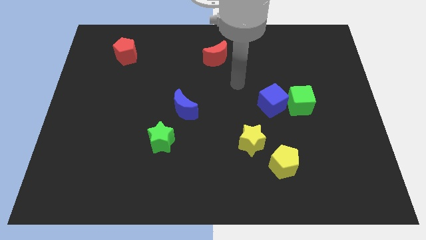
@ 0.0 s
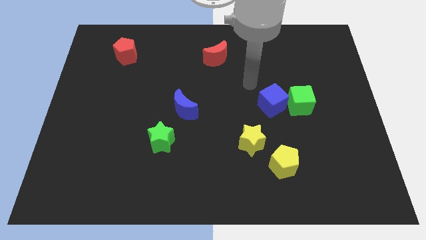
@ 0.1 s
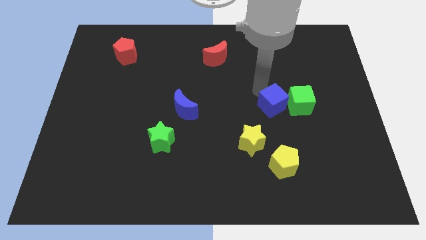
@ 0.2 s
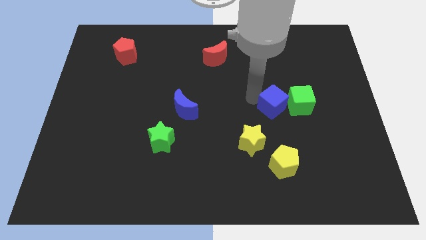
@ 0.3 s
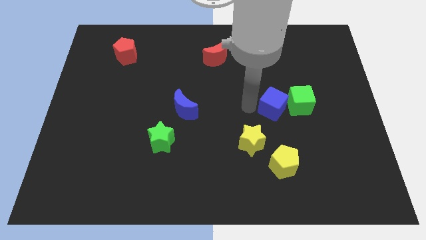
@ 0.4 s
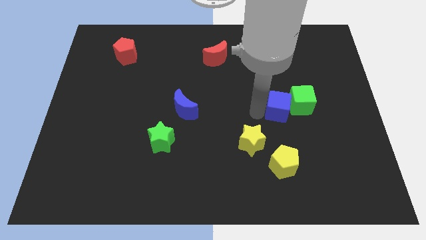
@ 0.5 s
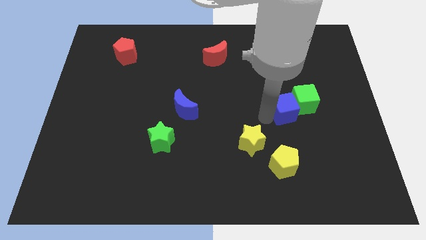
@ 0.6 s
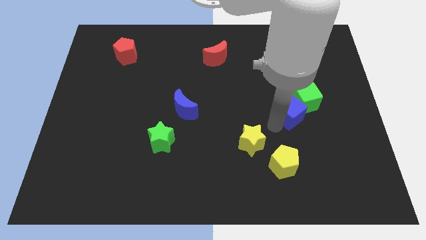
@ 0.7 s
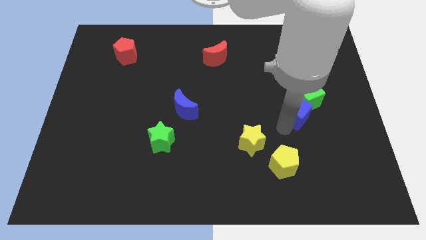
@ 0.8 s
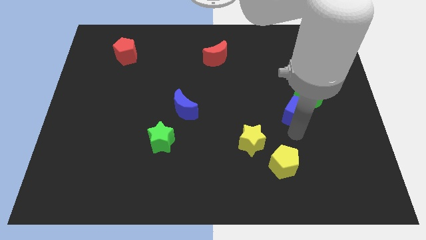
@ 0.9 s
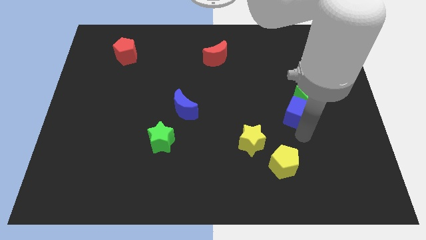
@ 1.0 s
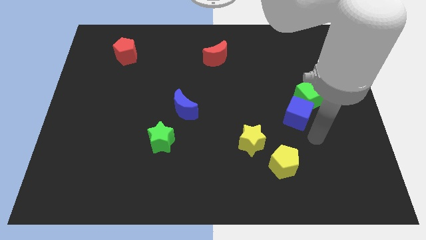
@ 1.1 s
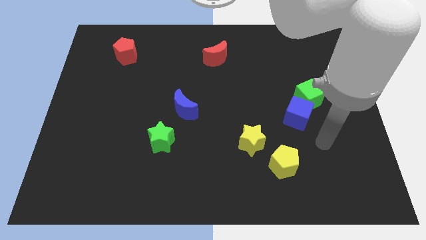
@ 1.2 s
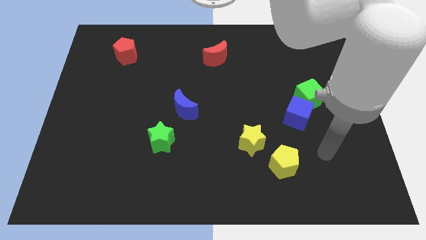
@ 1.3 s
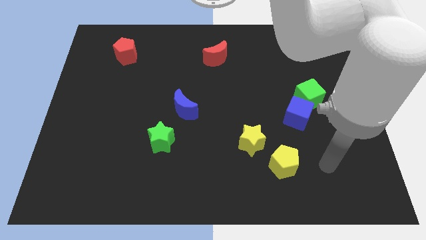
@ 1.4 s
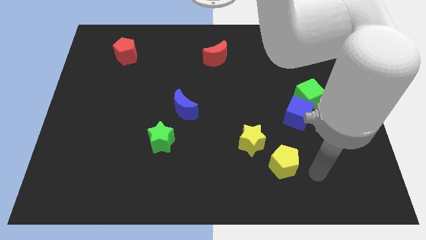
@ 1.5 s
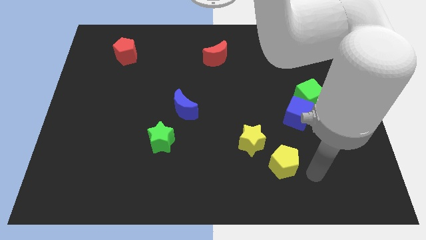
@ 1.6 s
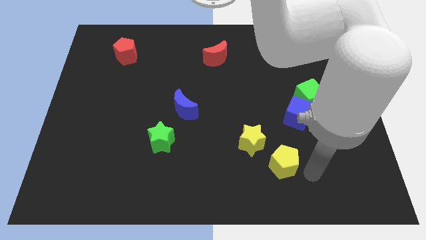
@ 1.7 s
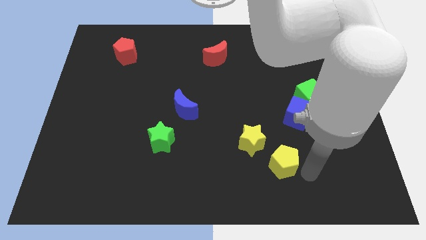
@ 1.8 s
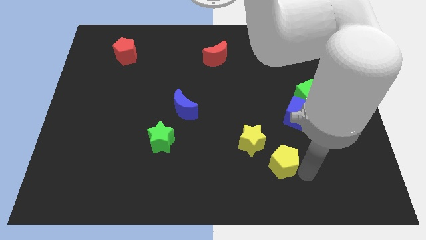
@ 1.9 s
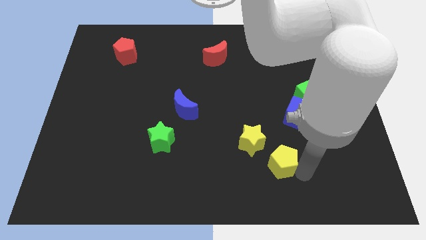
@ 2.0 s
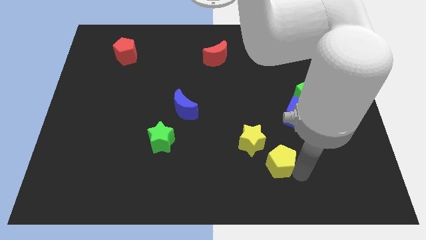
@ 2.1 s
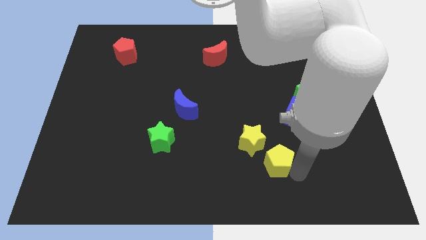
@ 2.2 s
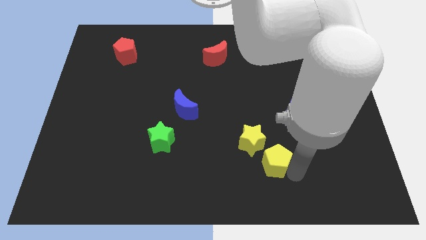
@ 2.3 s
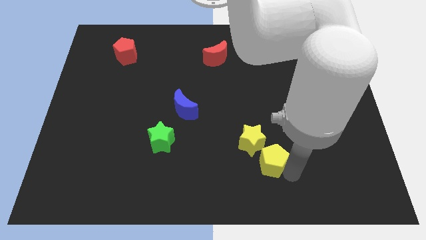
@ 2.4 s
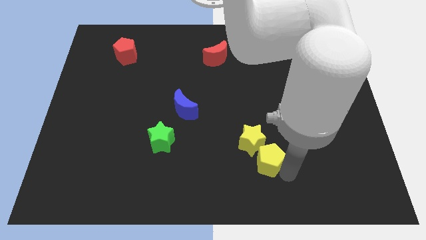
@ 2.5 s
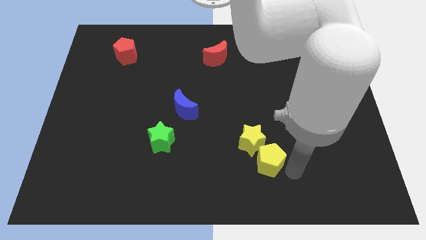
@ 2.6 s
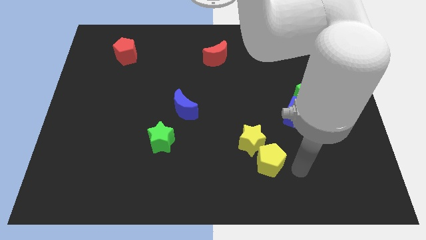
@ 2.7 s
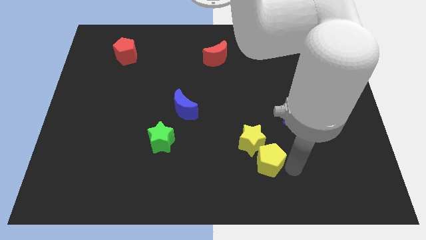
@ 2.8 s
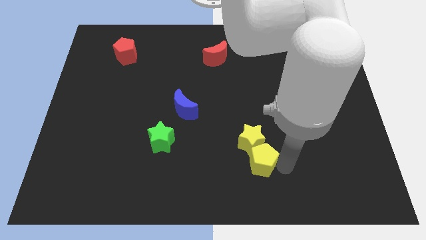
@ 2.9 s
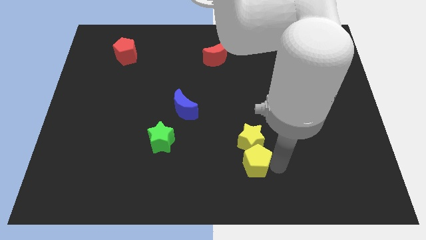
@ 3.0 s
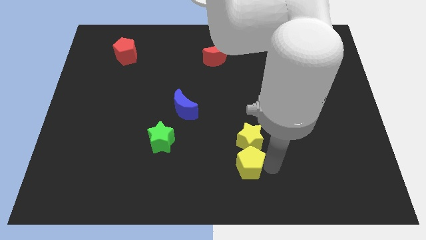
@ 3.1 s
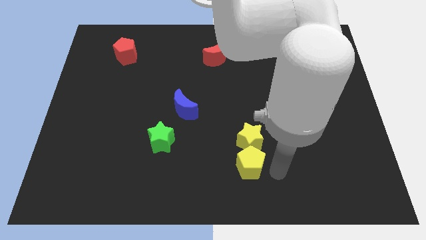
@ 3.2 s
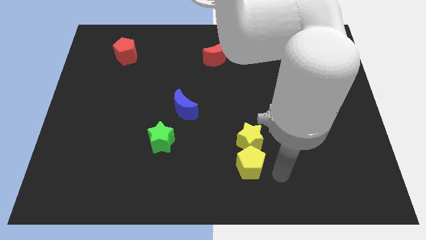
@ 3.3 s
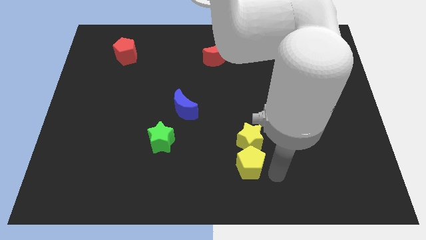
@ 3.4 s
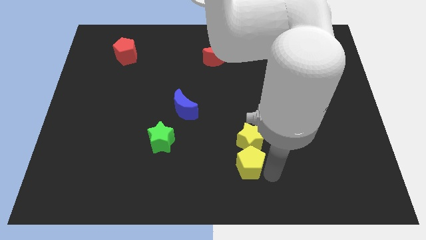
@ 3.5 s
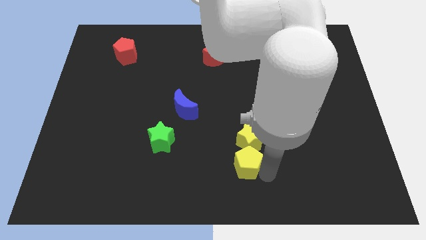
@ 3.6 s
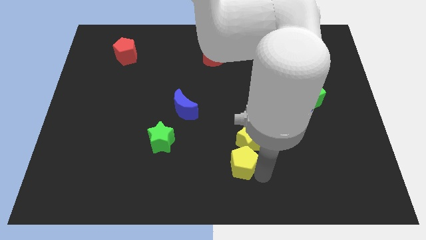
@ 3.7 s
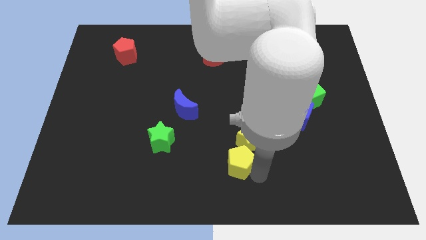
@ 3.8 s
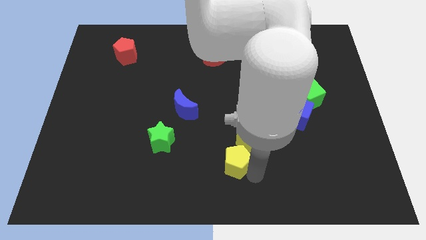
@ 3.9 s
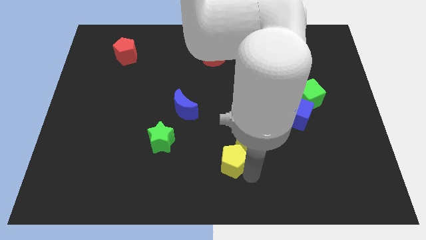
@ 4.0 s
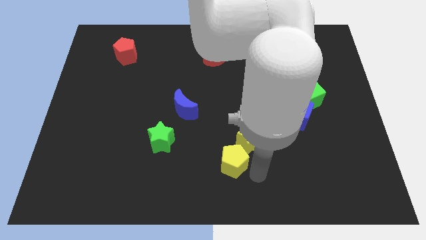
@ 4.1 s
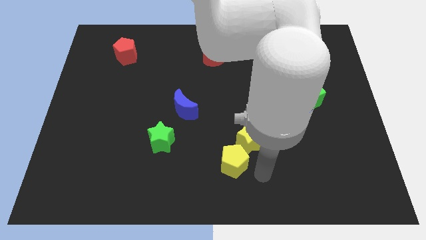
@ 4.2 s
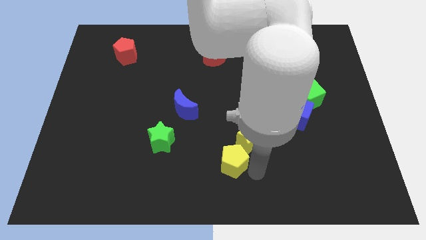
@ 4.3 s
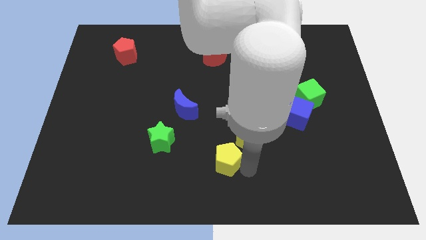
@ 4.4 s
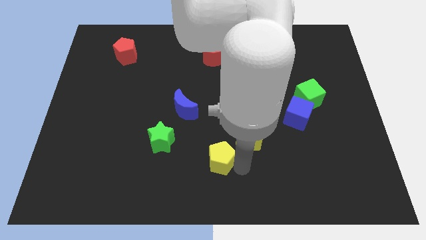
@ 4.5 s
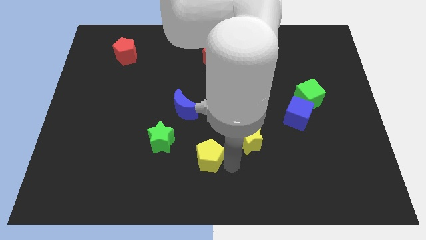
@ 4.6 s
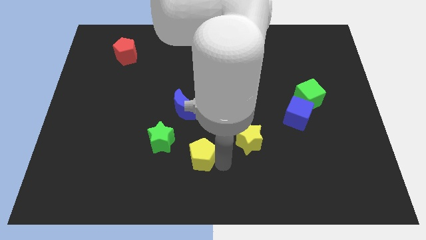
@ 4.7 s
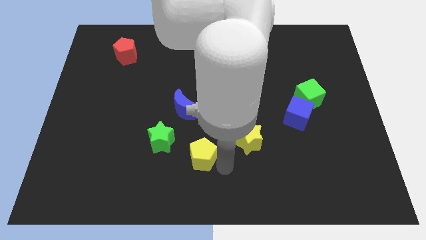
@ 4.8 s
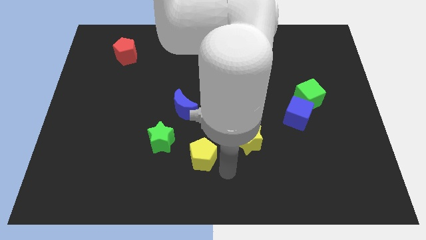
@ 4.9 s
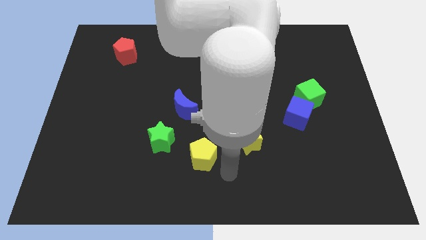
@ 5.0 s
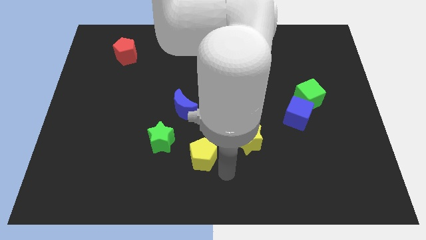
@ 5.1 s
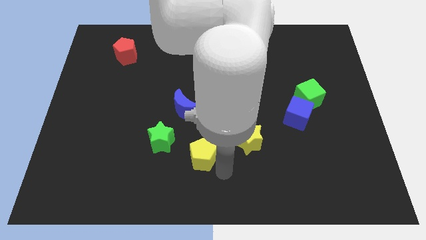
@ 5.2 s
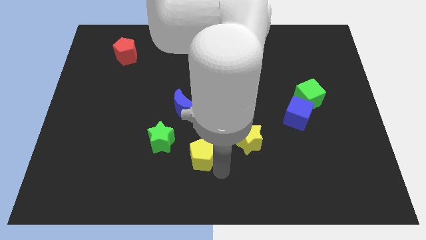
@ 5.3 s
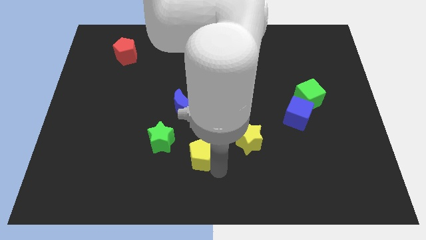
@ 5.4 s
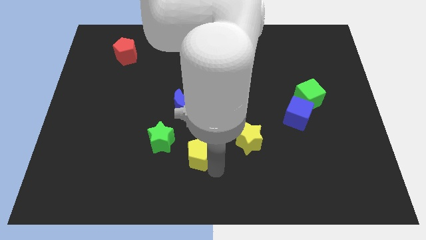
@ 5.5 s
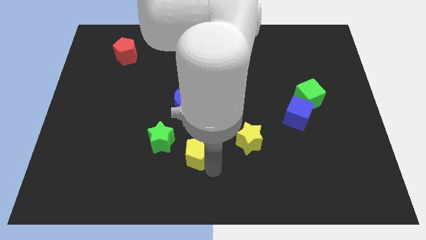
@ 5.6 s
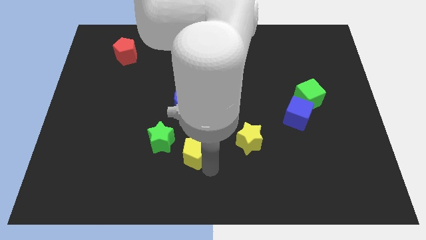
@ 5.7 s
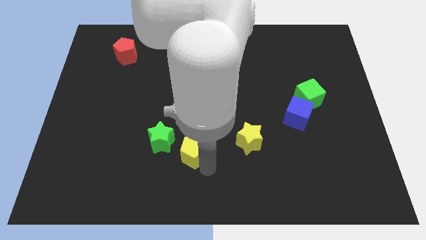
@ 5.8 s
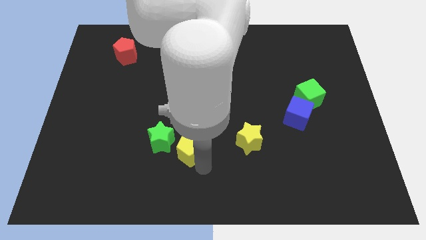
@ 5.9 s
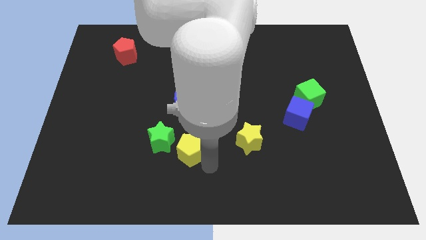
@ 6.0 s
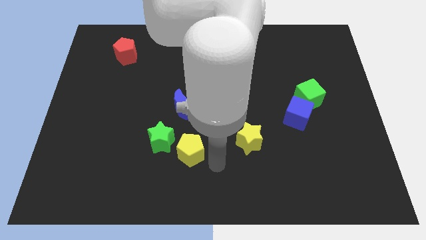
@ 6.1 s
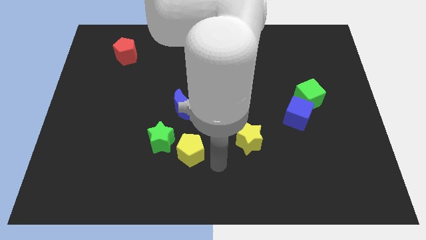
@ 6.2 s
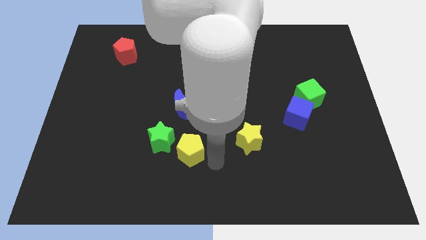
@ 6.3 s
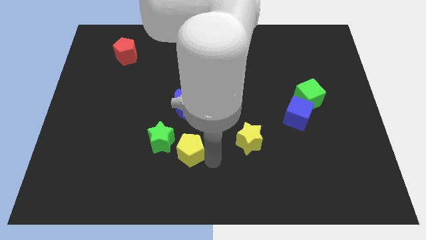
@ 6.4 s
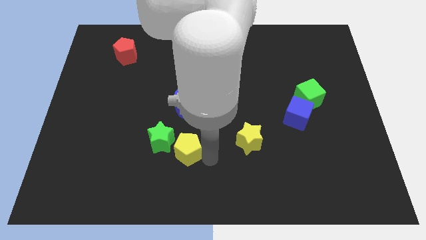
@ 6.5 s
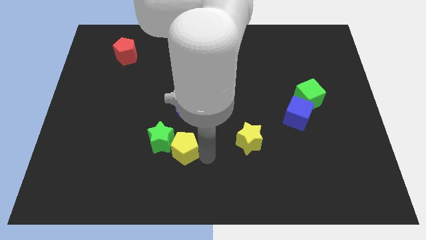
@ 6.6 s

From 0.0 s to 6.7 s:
push the yellow pentagon next to the green star

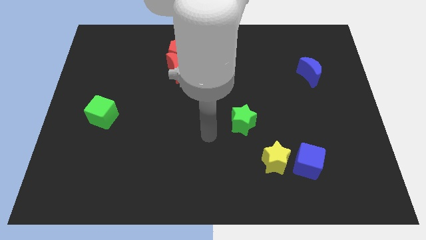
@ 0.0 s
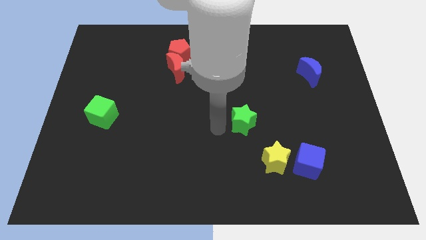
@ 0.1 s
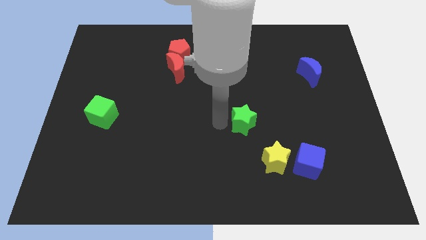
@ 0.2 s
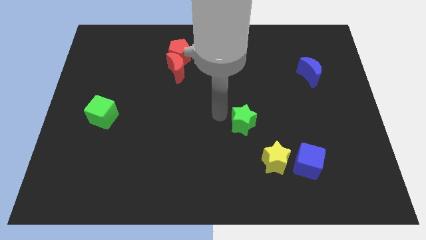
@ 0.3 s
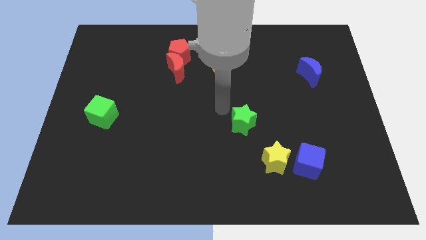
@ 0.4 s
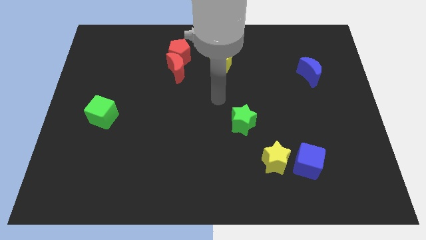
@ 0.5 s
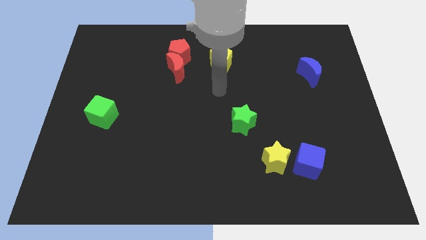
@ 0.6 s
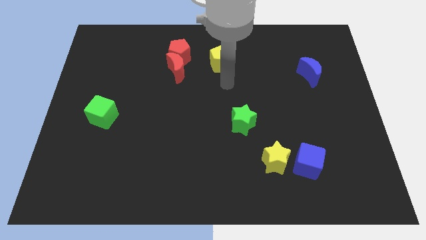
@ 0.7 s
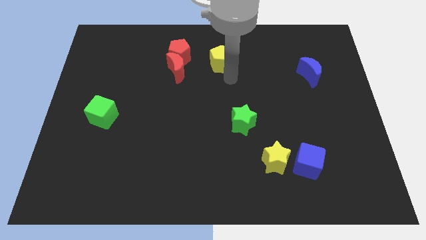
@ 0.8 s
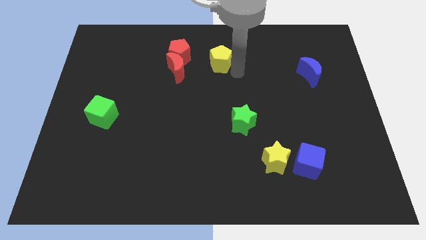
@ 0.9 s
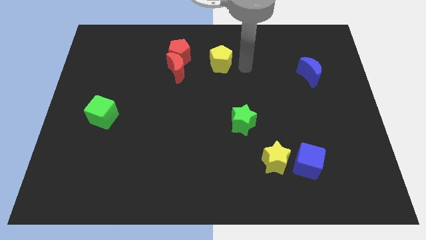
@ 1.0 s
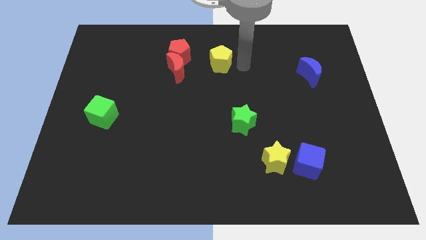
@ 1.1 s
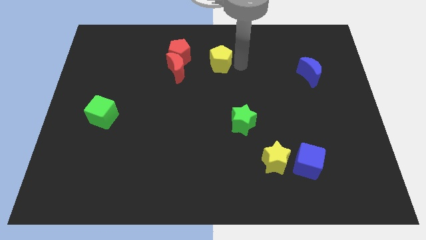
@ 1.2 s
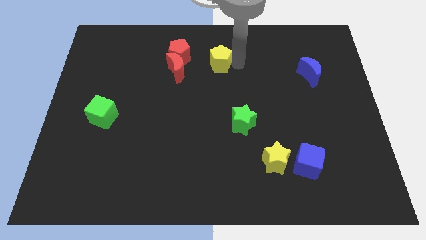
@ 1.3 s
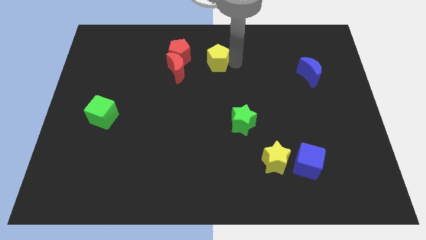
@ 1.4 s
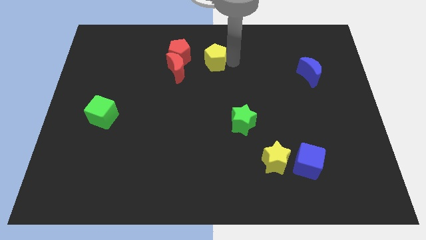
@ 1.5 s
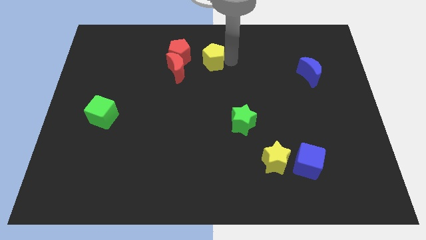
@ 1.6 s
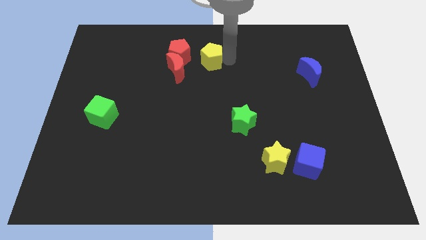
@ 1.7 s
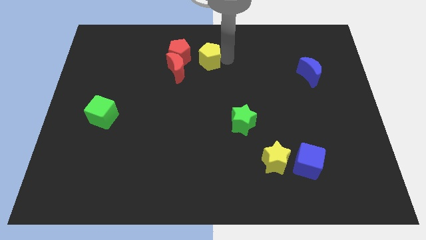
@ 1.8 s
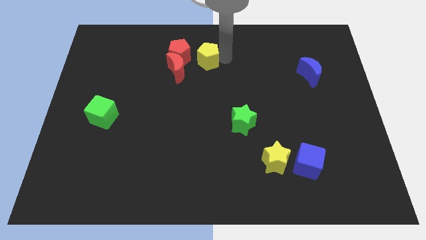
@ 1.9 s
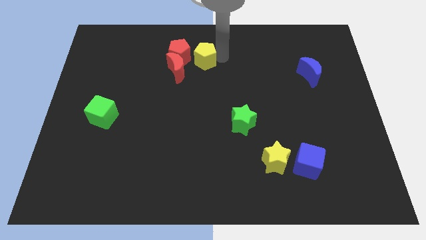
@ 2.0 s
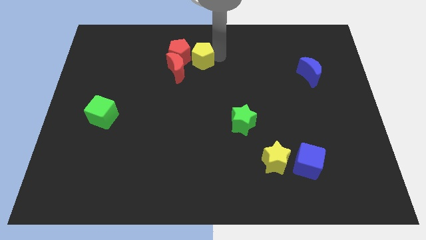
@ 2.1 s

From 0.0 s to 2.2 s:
slide the yellow pentagon next to the red pentagon
